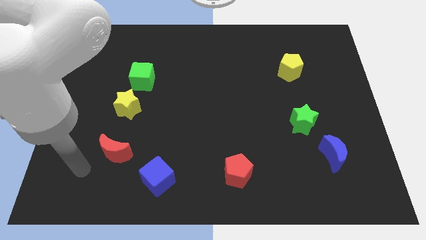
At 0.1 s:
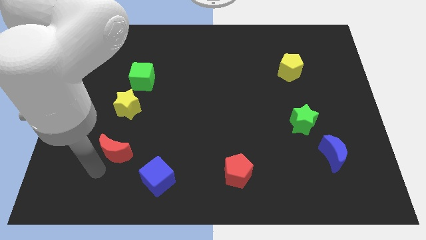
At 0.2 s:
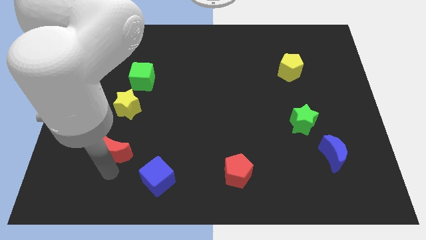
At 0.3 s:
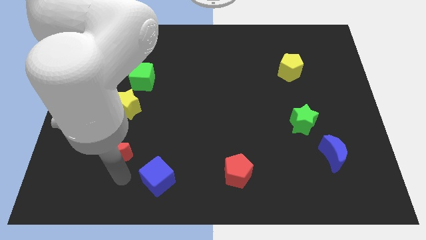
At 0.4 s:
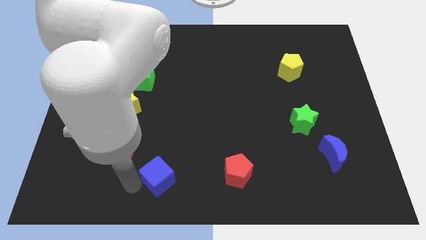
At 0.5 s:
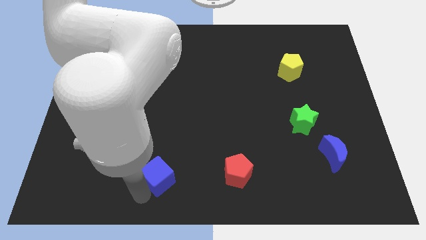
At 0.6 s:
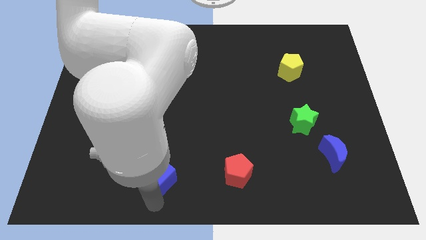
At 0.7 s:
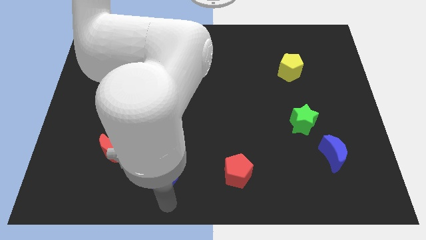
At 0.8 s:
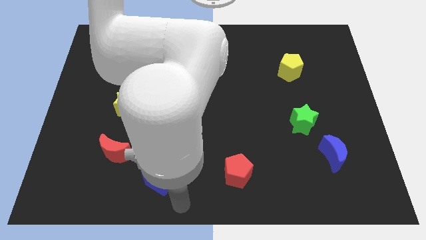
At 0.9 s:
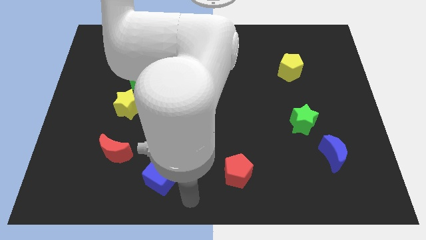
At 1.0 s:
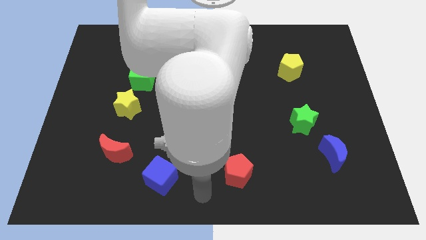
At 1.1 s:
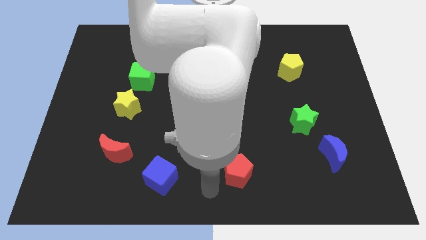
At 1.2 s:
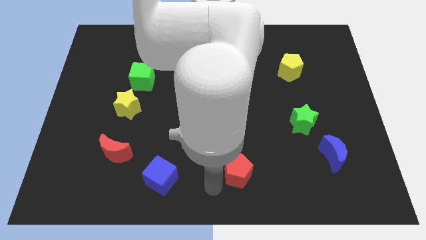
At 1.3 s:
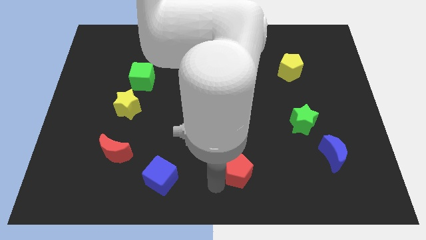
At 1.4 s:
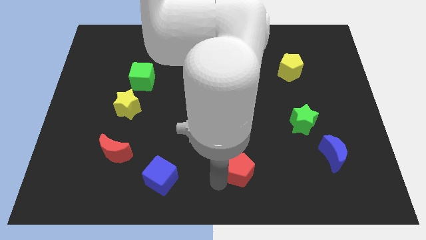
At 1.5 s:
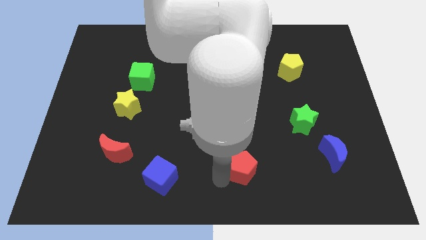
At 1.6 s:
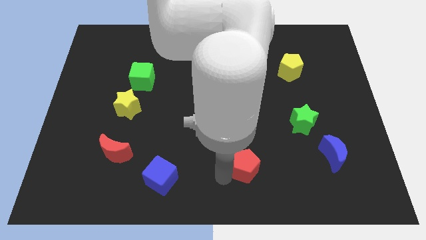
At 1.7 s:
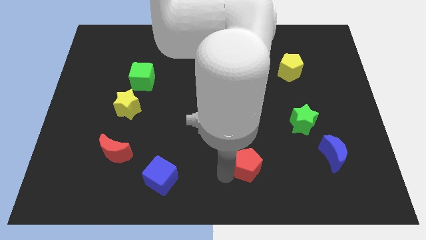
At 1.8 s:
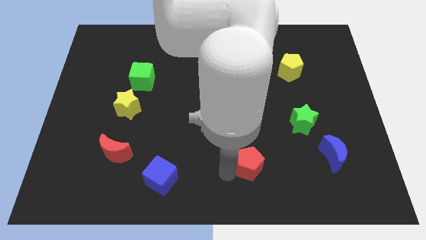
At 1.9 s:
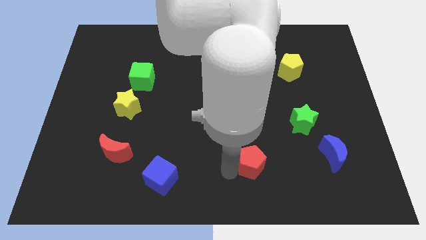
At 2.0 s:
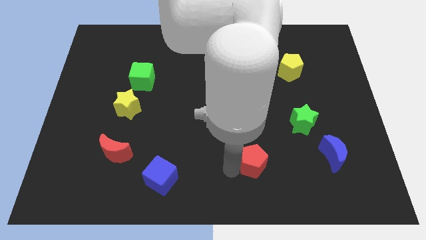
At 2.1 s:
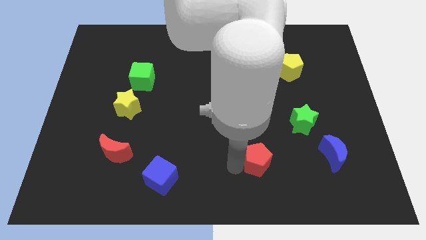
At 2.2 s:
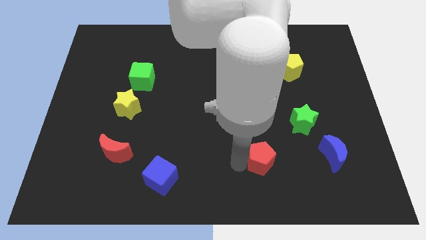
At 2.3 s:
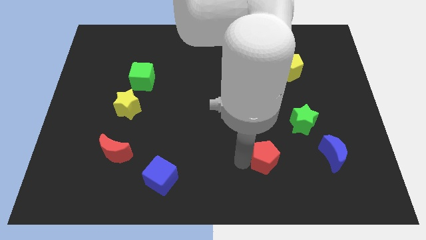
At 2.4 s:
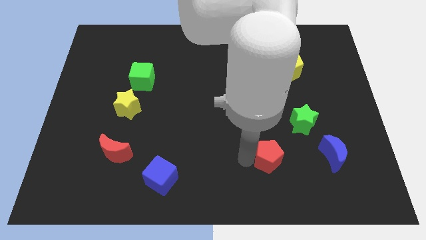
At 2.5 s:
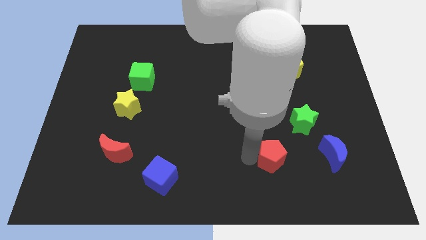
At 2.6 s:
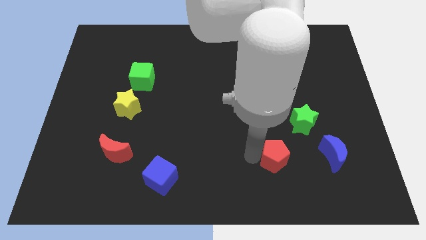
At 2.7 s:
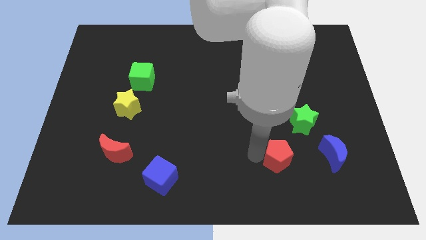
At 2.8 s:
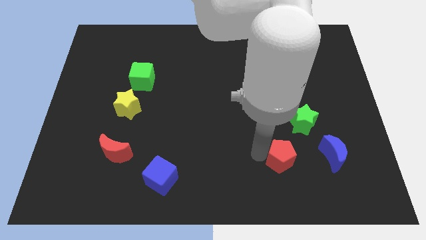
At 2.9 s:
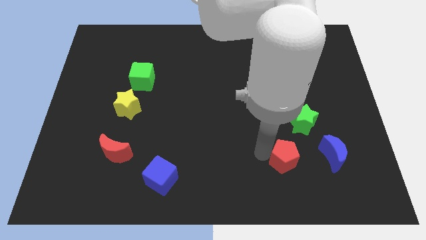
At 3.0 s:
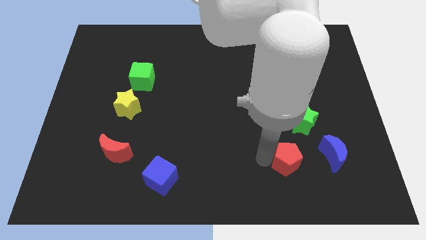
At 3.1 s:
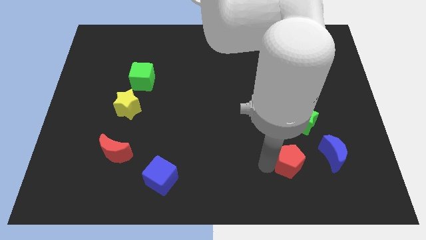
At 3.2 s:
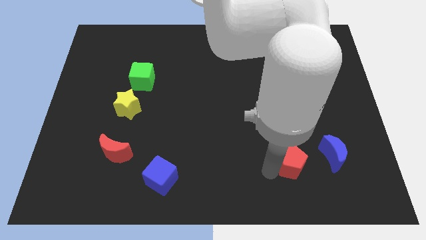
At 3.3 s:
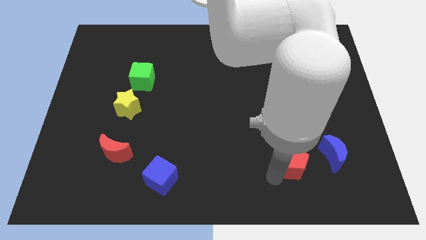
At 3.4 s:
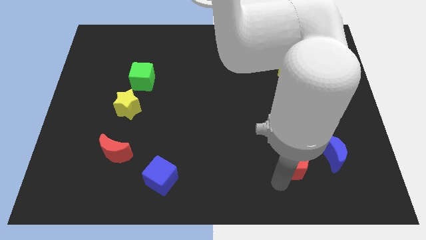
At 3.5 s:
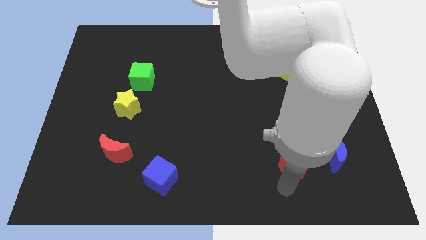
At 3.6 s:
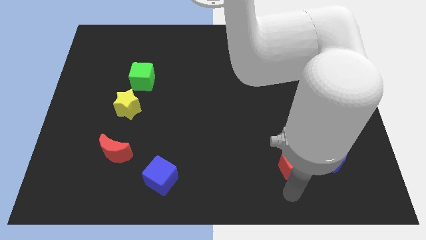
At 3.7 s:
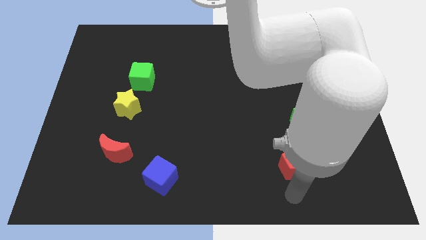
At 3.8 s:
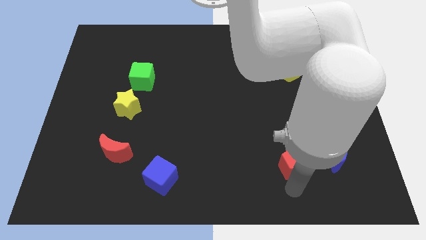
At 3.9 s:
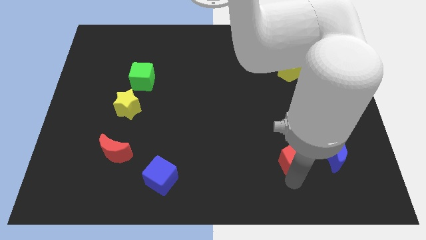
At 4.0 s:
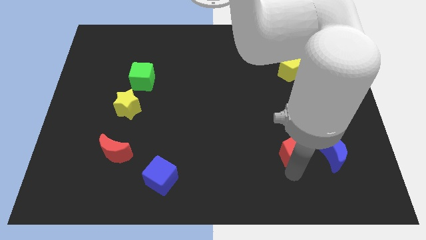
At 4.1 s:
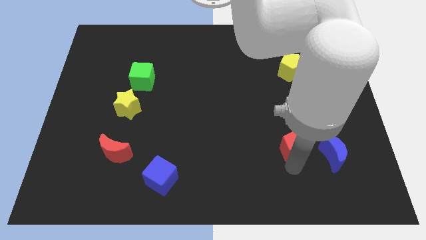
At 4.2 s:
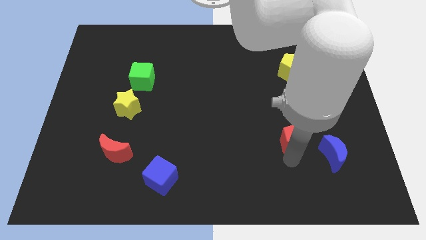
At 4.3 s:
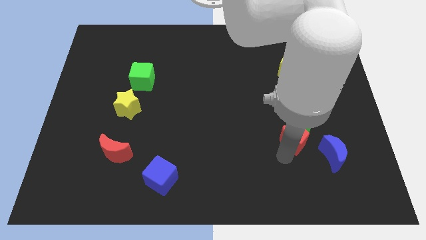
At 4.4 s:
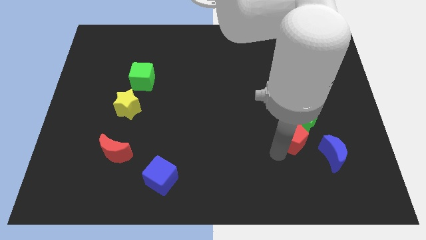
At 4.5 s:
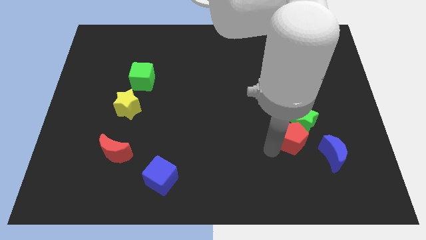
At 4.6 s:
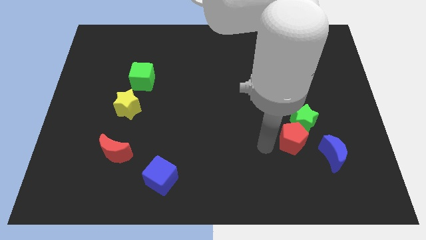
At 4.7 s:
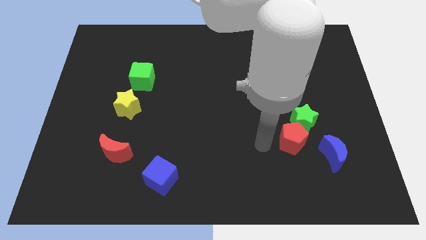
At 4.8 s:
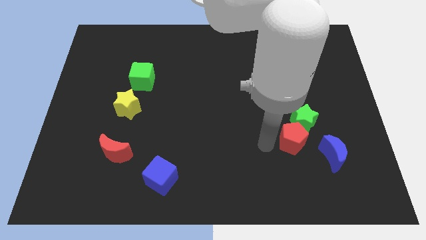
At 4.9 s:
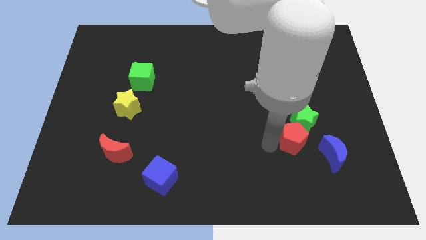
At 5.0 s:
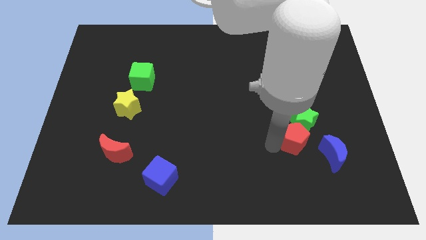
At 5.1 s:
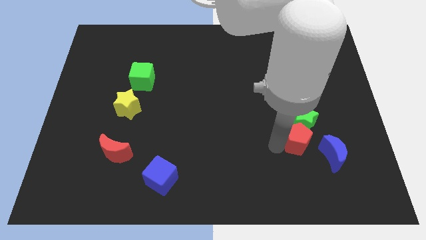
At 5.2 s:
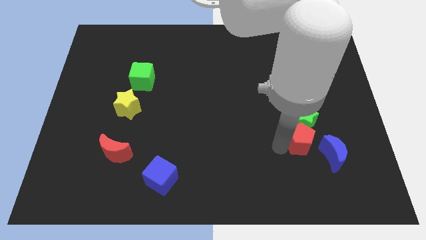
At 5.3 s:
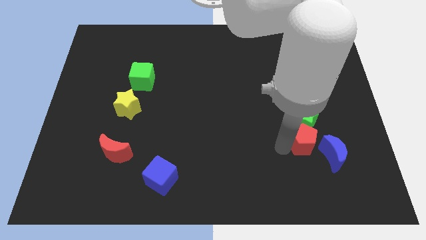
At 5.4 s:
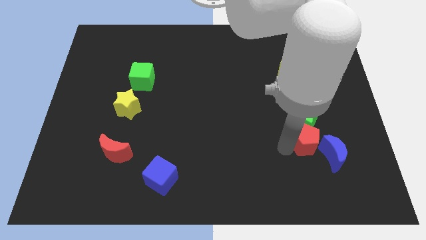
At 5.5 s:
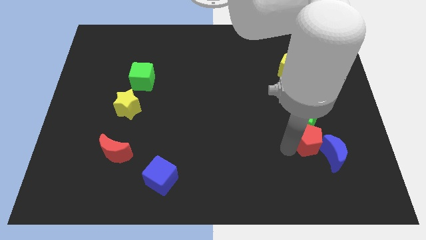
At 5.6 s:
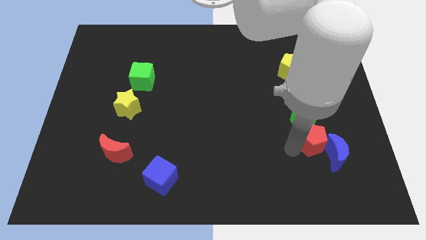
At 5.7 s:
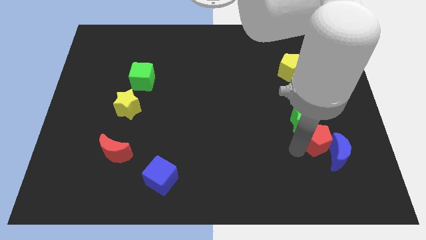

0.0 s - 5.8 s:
push the red pentagon above the blue moon

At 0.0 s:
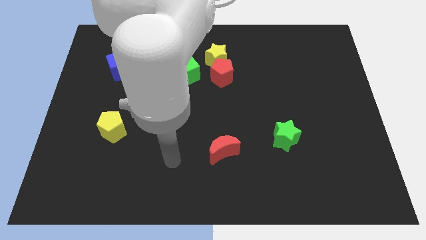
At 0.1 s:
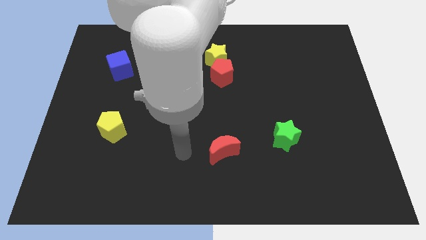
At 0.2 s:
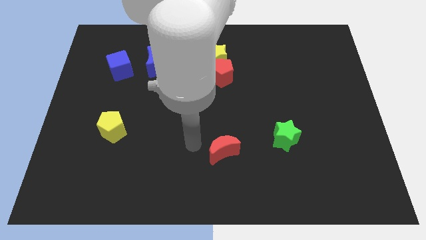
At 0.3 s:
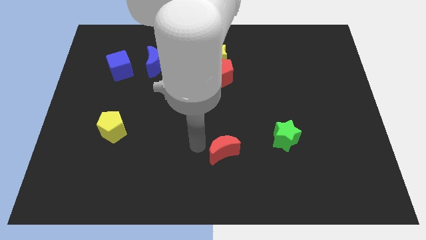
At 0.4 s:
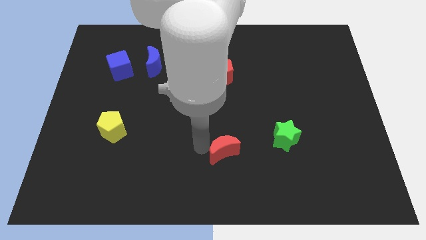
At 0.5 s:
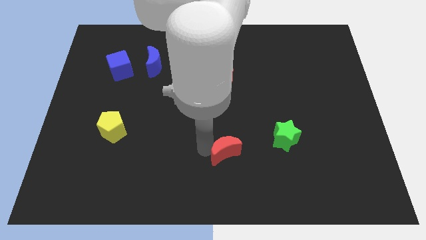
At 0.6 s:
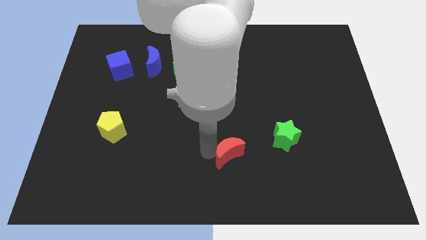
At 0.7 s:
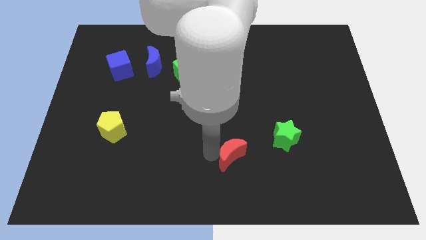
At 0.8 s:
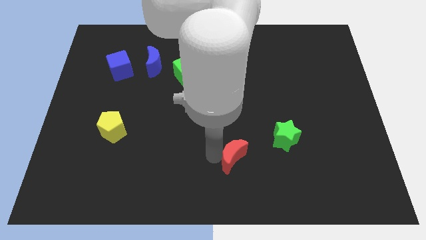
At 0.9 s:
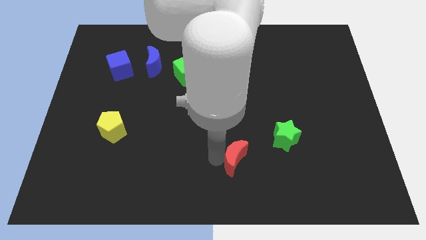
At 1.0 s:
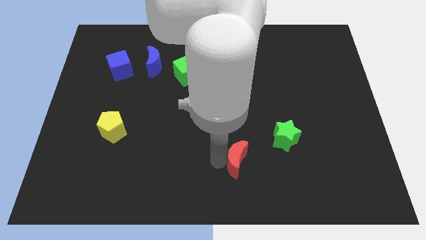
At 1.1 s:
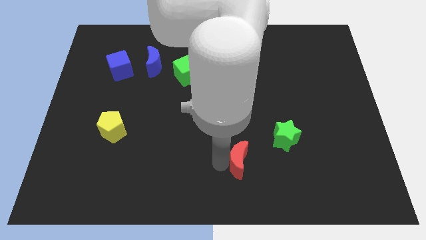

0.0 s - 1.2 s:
put the red moon to the bottom left of the green star
